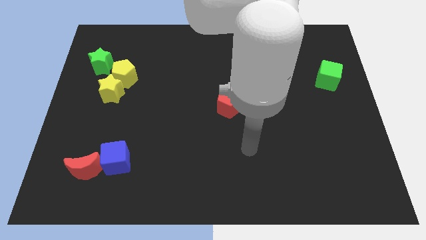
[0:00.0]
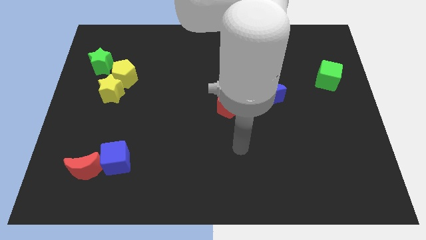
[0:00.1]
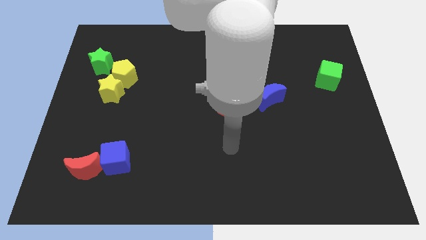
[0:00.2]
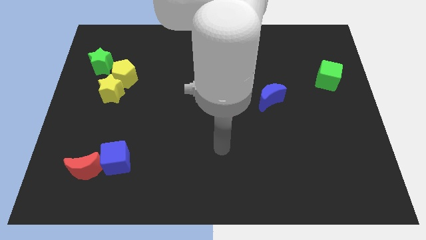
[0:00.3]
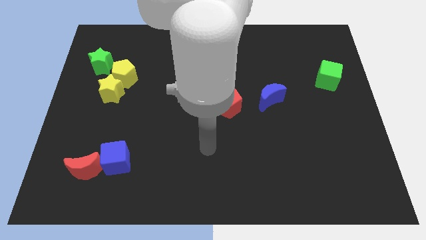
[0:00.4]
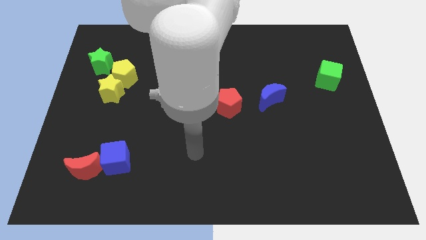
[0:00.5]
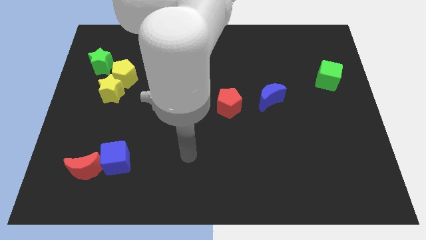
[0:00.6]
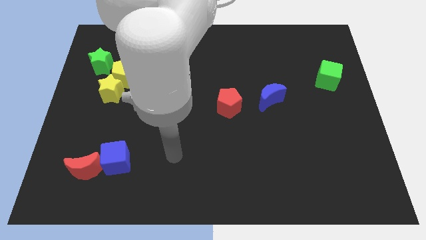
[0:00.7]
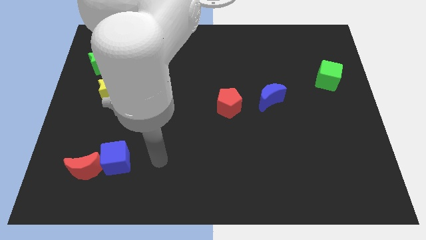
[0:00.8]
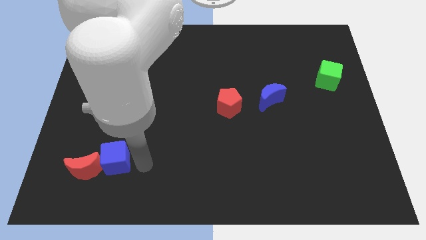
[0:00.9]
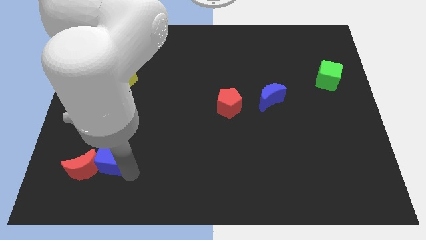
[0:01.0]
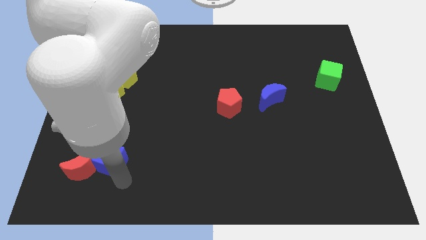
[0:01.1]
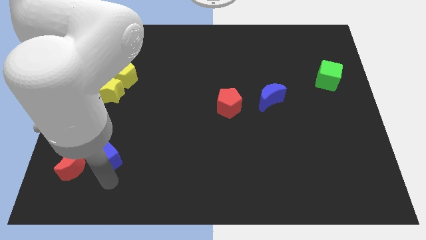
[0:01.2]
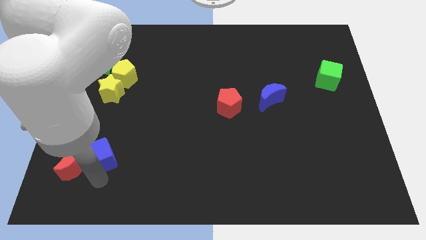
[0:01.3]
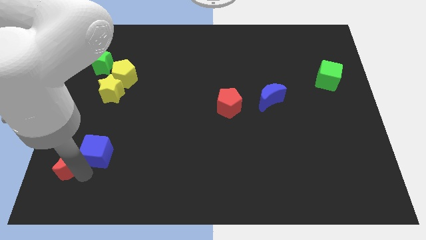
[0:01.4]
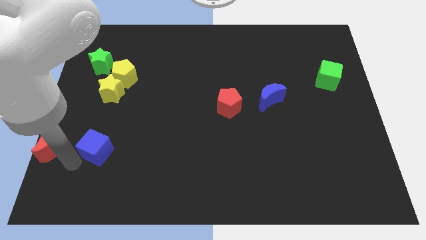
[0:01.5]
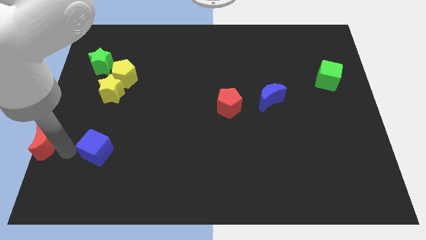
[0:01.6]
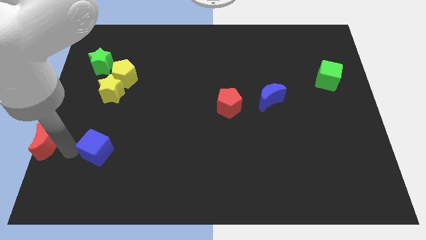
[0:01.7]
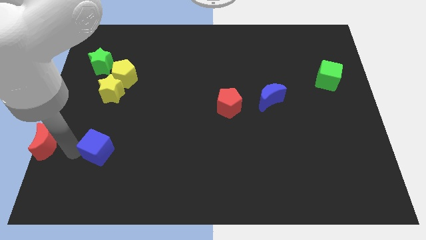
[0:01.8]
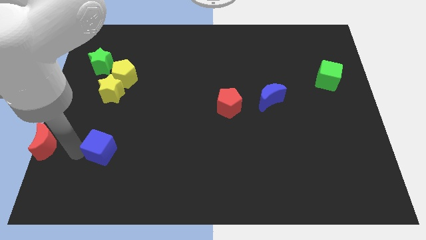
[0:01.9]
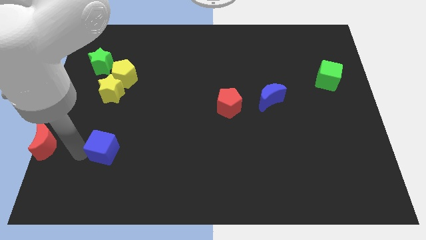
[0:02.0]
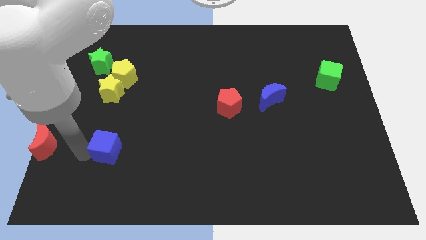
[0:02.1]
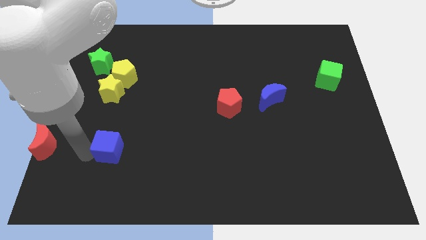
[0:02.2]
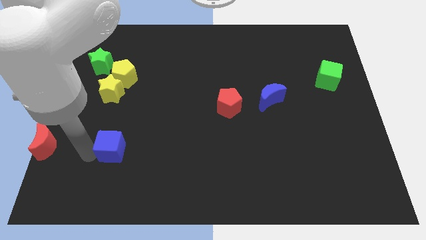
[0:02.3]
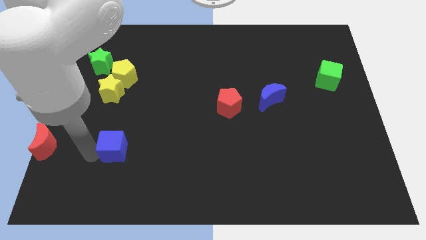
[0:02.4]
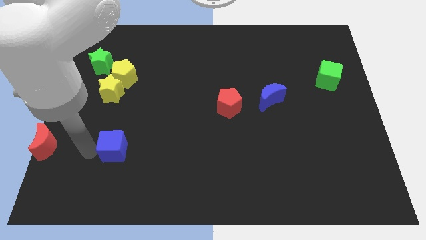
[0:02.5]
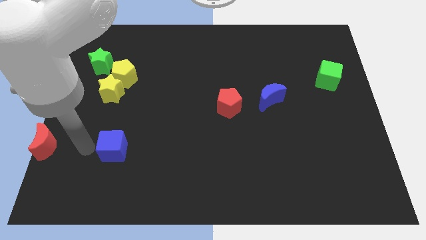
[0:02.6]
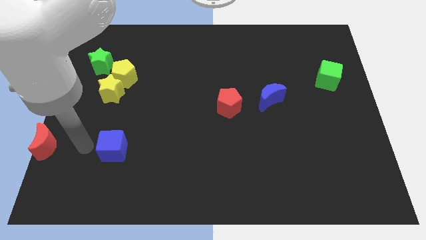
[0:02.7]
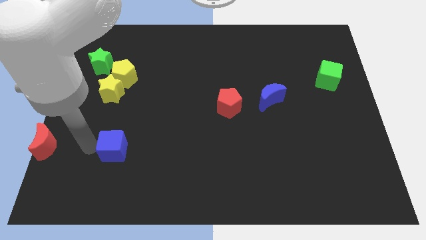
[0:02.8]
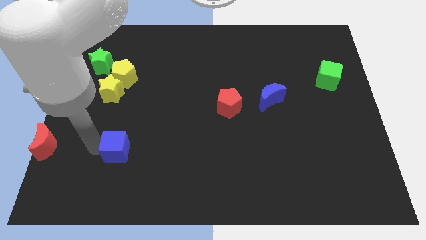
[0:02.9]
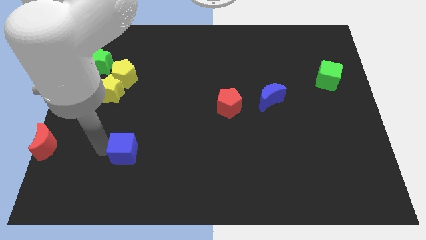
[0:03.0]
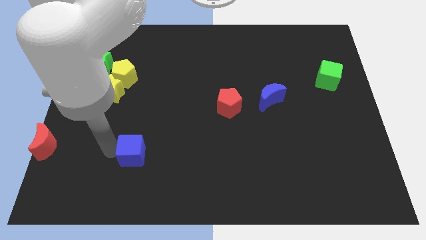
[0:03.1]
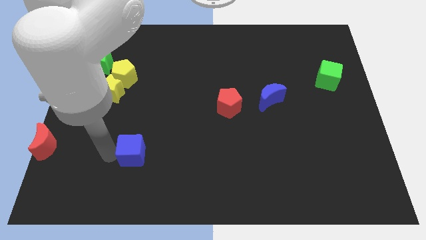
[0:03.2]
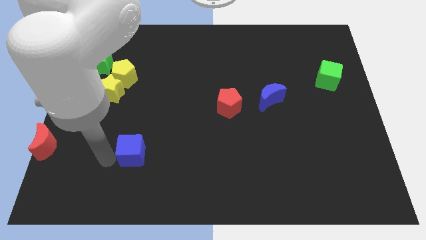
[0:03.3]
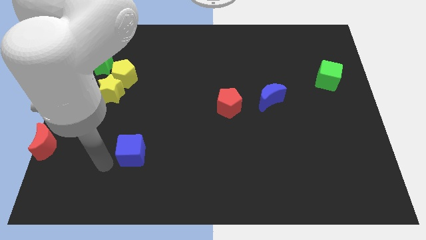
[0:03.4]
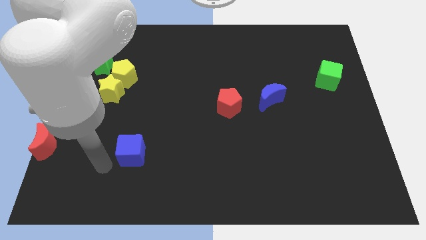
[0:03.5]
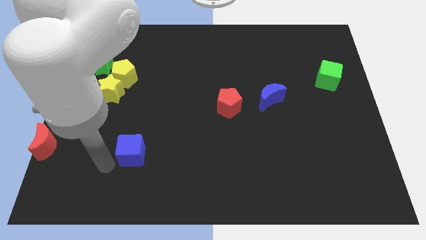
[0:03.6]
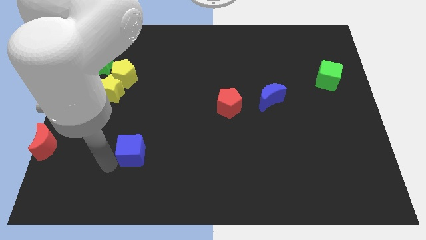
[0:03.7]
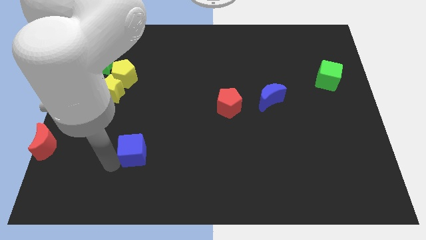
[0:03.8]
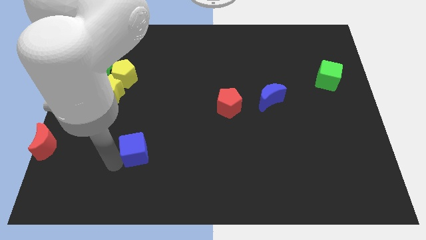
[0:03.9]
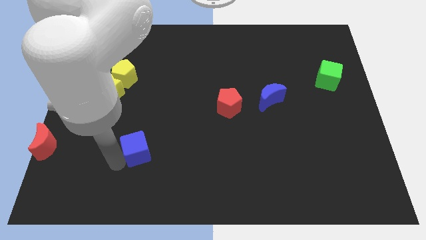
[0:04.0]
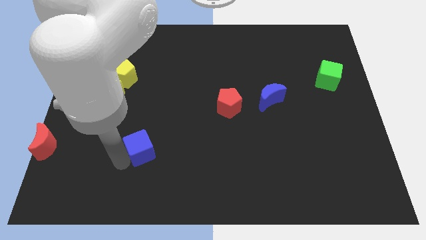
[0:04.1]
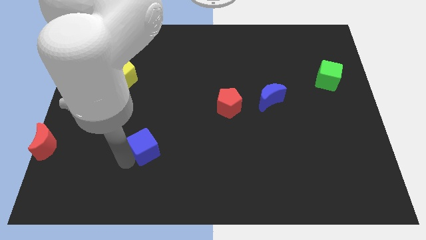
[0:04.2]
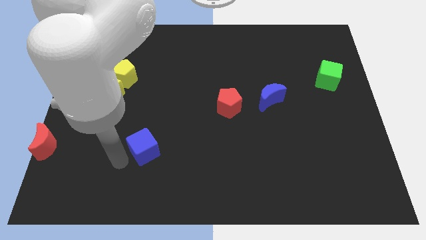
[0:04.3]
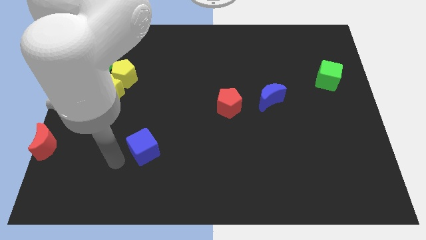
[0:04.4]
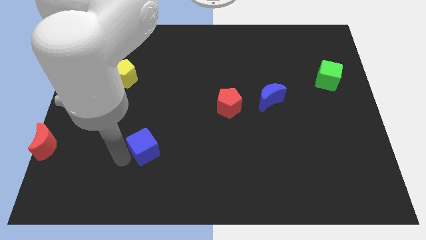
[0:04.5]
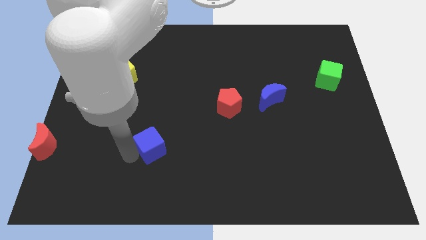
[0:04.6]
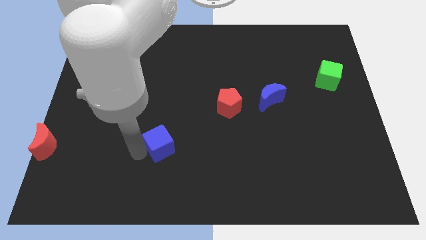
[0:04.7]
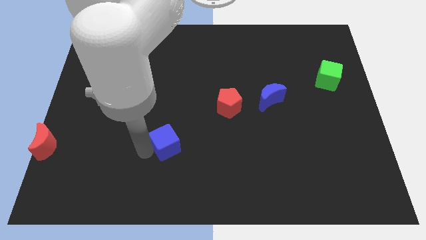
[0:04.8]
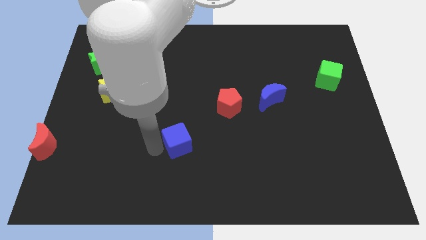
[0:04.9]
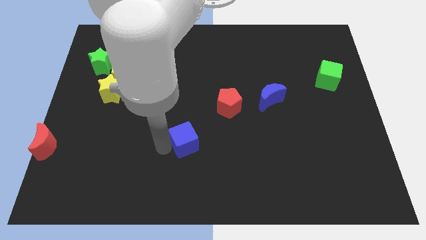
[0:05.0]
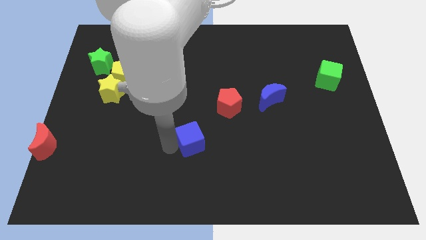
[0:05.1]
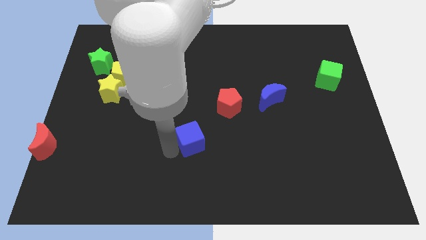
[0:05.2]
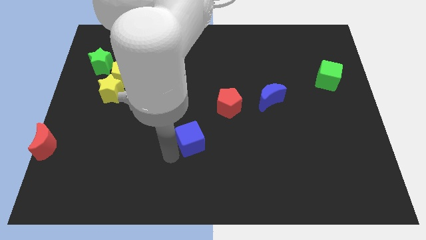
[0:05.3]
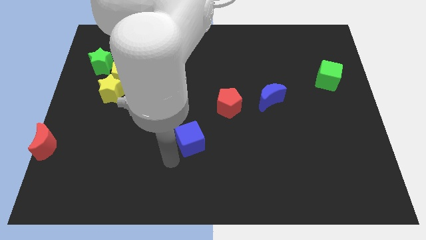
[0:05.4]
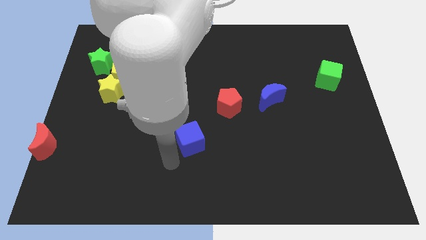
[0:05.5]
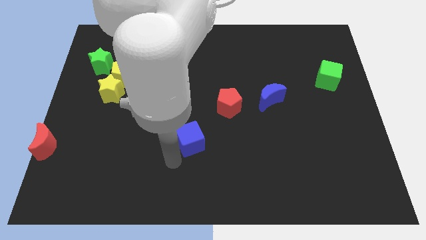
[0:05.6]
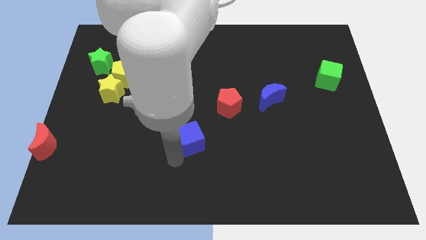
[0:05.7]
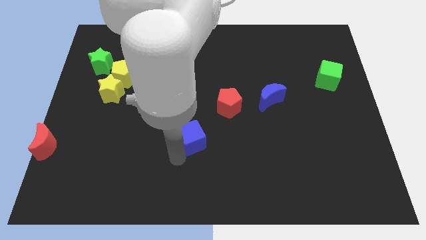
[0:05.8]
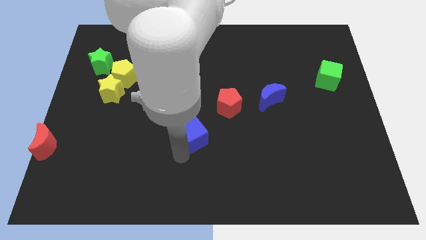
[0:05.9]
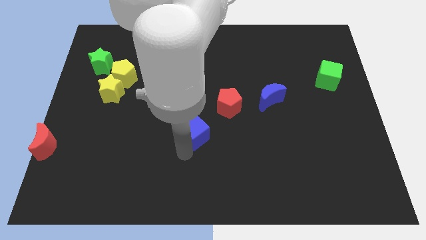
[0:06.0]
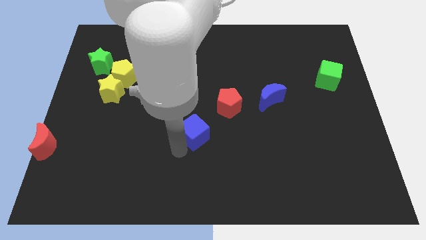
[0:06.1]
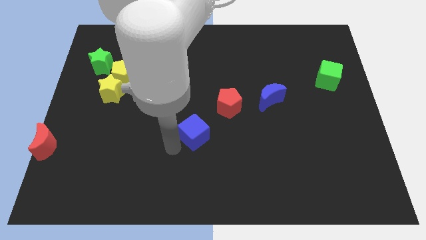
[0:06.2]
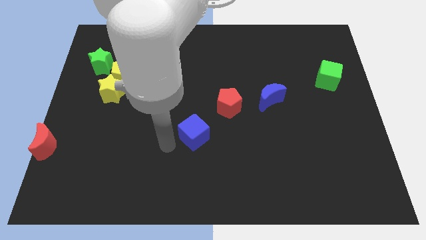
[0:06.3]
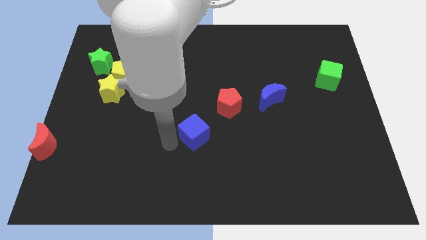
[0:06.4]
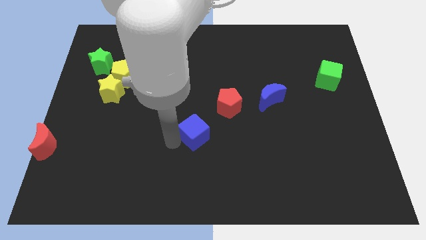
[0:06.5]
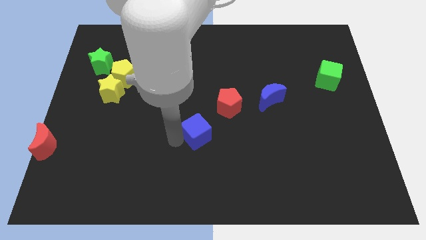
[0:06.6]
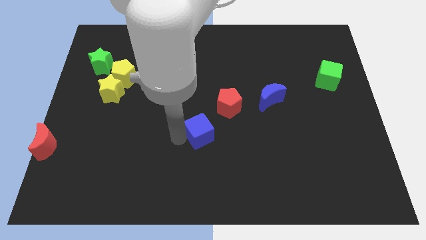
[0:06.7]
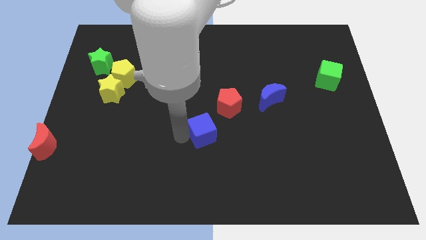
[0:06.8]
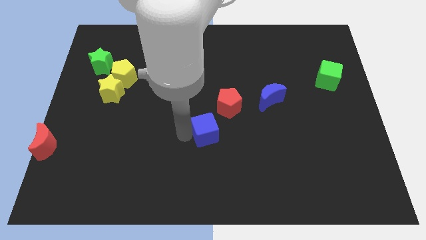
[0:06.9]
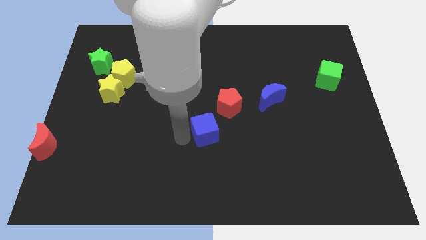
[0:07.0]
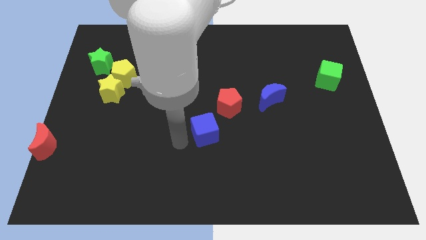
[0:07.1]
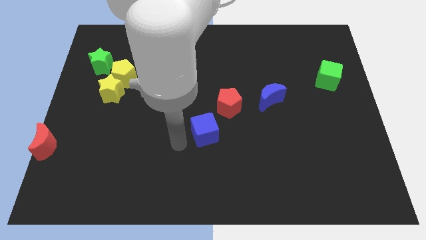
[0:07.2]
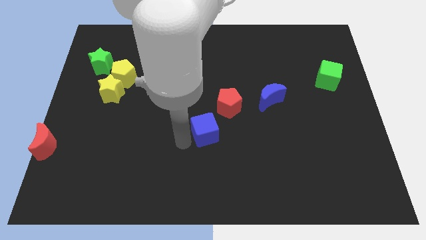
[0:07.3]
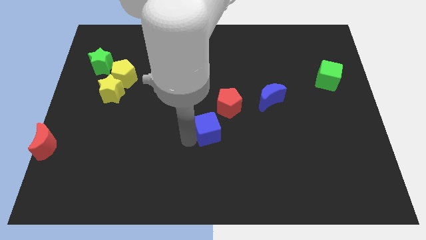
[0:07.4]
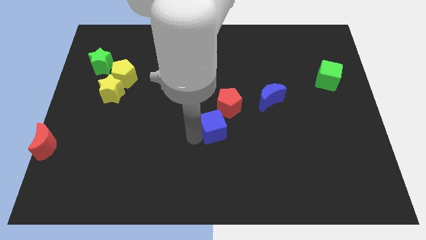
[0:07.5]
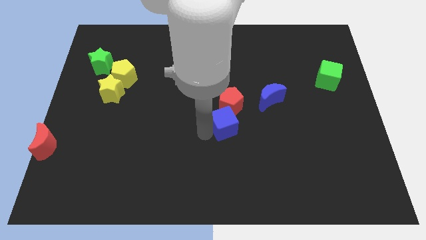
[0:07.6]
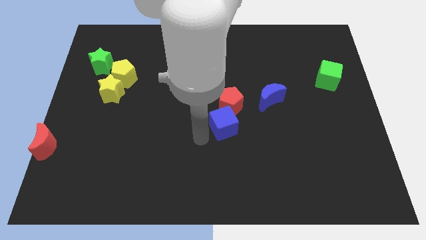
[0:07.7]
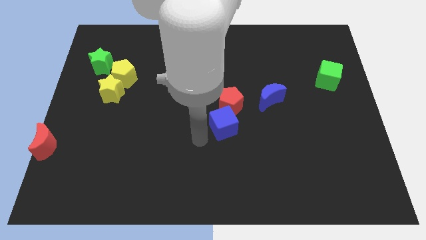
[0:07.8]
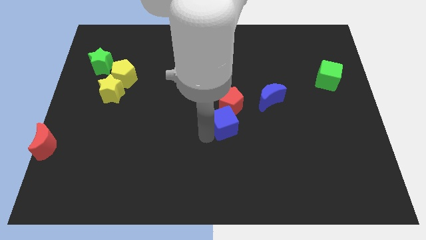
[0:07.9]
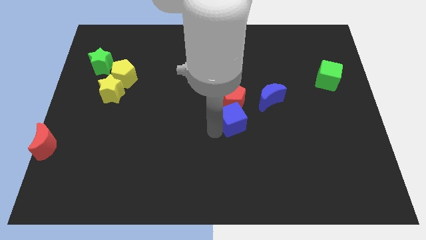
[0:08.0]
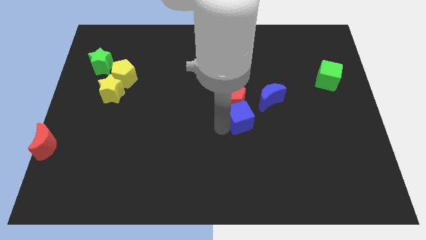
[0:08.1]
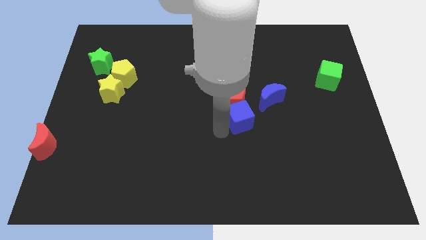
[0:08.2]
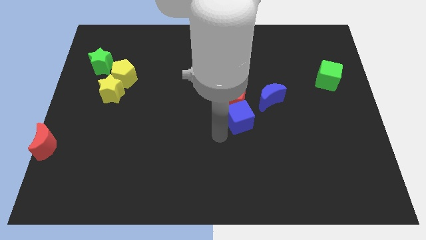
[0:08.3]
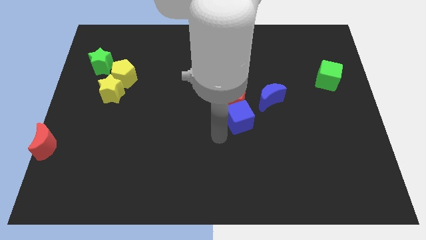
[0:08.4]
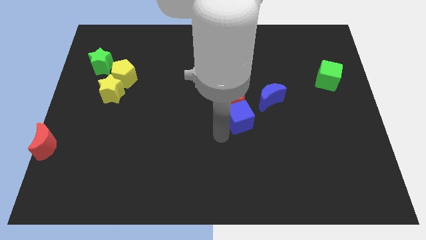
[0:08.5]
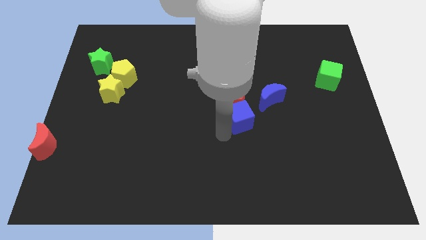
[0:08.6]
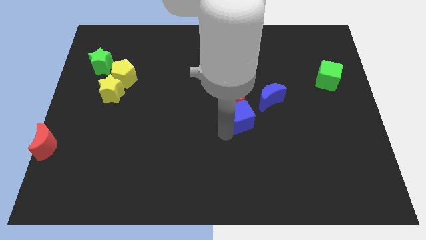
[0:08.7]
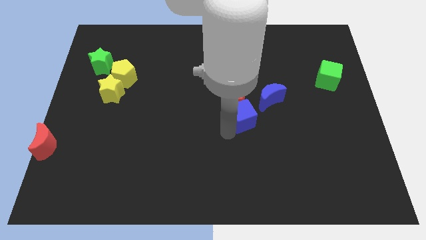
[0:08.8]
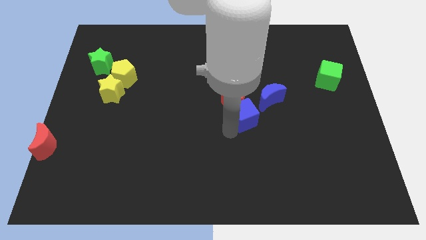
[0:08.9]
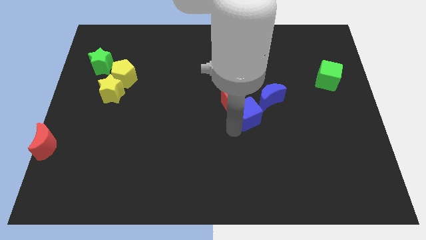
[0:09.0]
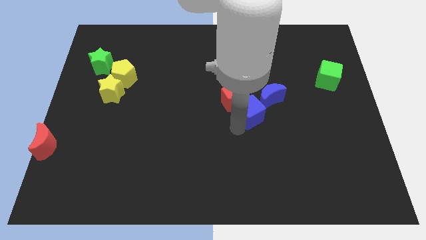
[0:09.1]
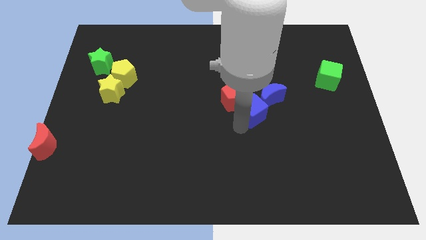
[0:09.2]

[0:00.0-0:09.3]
slide the blue cube to the blue moon
